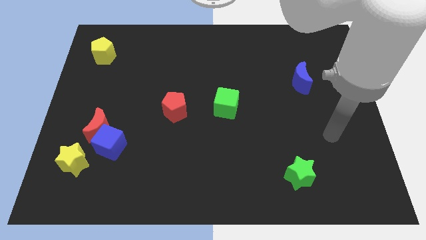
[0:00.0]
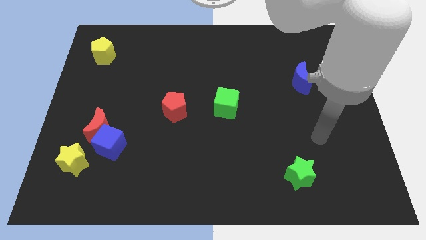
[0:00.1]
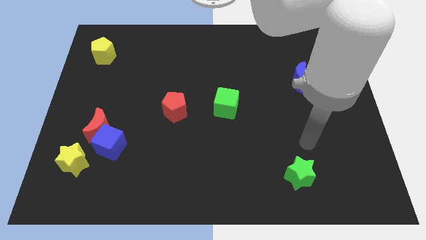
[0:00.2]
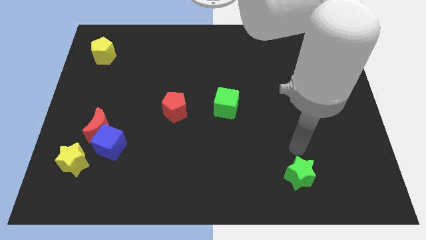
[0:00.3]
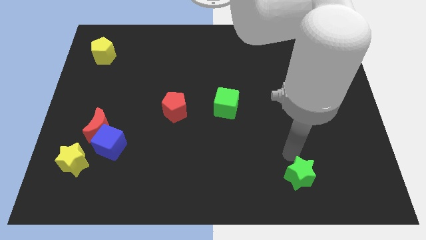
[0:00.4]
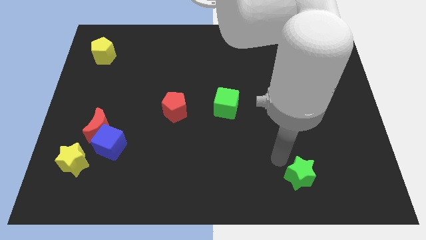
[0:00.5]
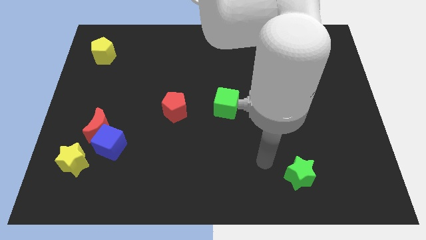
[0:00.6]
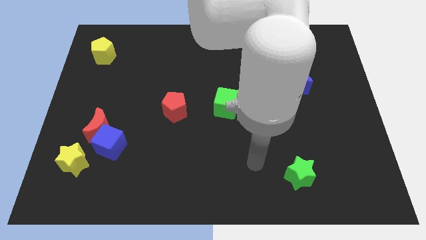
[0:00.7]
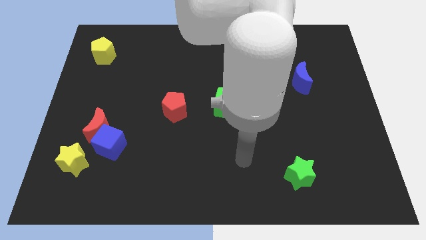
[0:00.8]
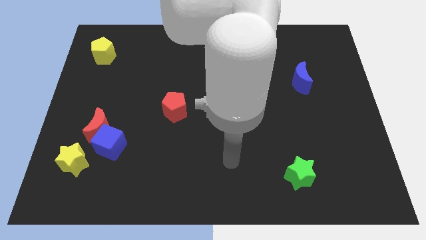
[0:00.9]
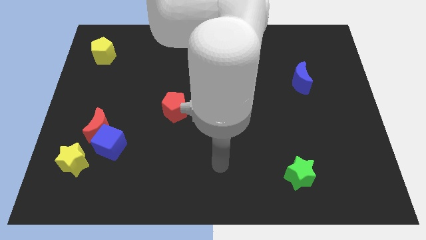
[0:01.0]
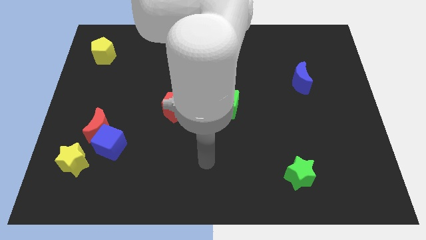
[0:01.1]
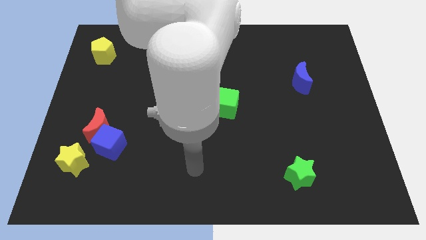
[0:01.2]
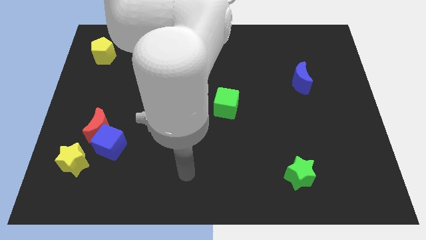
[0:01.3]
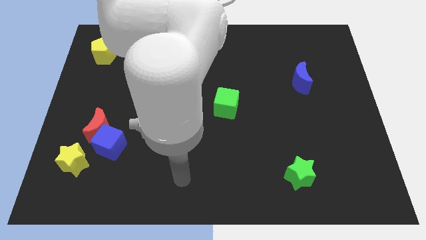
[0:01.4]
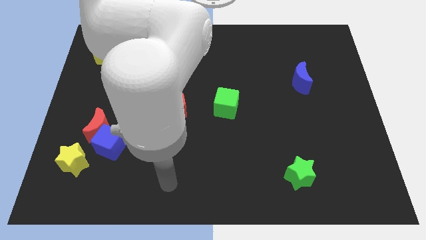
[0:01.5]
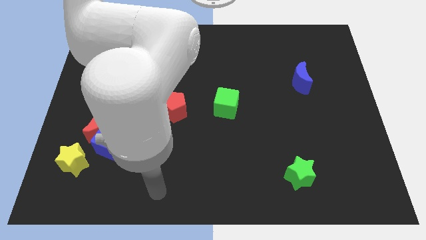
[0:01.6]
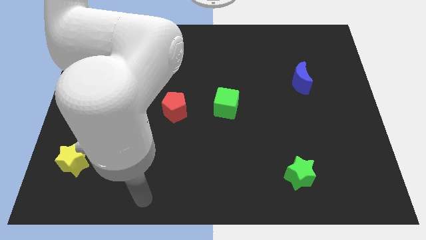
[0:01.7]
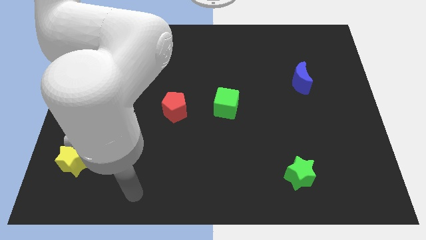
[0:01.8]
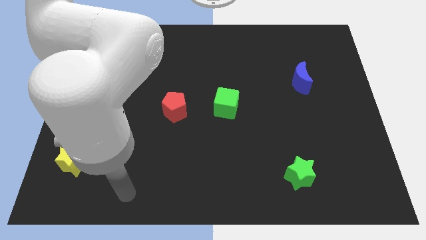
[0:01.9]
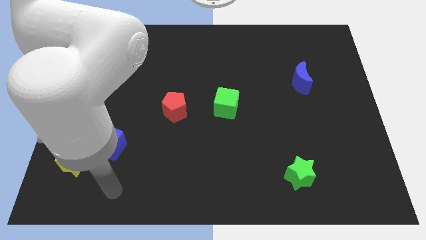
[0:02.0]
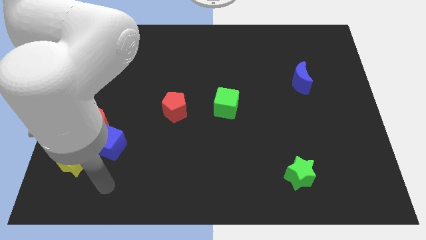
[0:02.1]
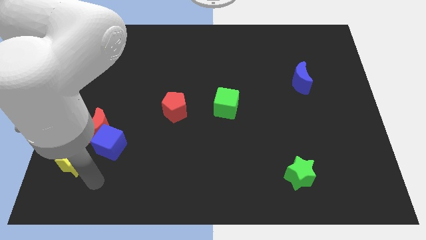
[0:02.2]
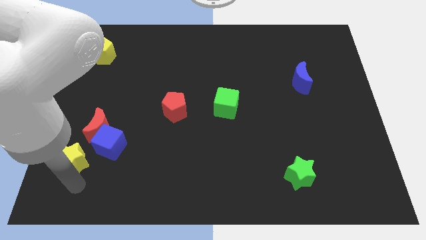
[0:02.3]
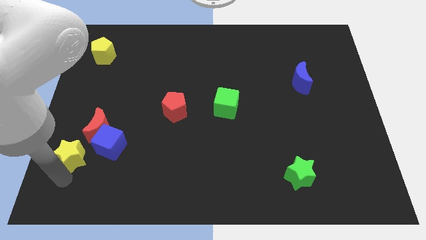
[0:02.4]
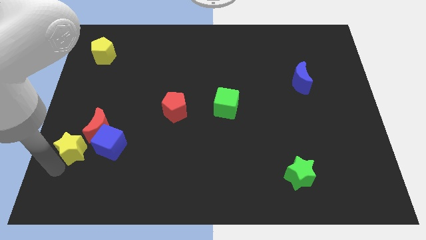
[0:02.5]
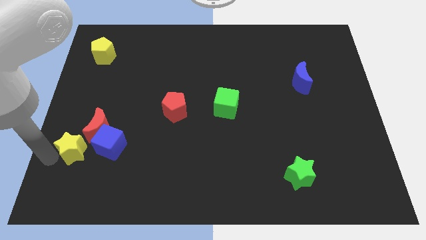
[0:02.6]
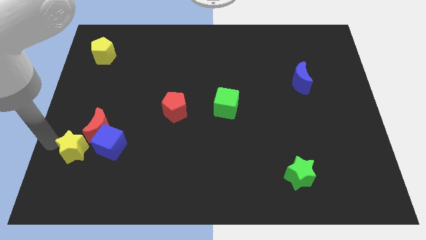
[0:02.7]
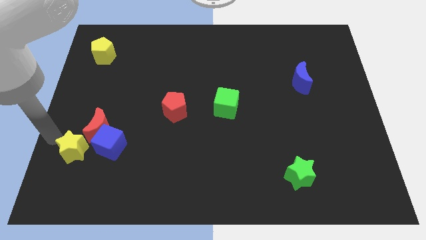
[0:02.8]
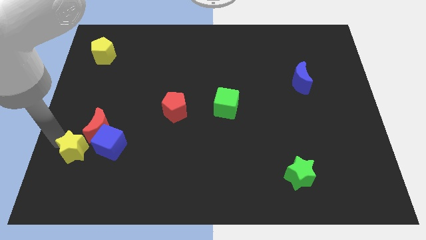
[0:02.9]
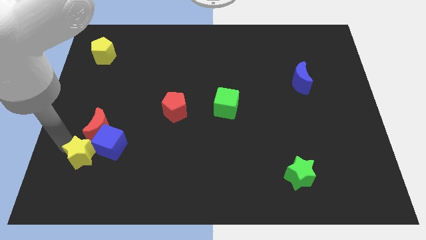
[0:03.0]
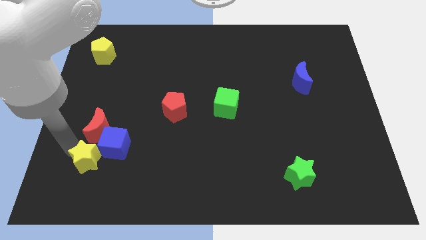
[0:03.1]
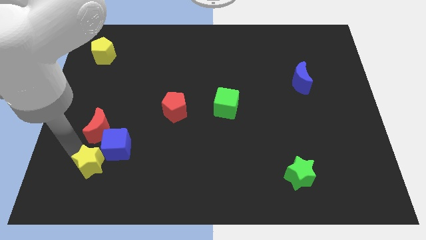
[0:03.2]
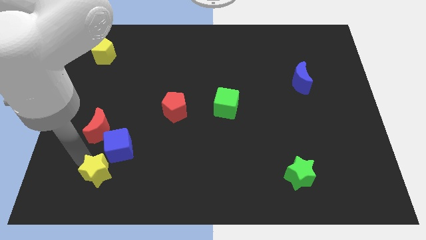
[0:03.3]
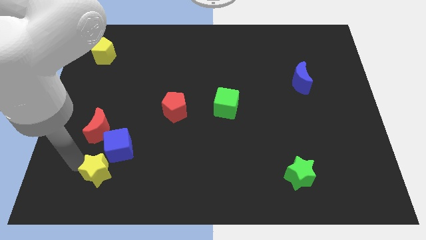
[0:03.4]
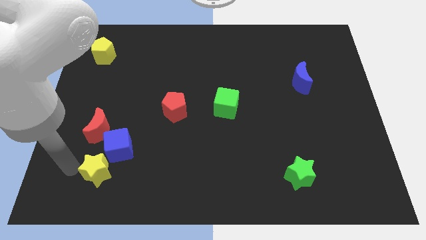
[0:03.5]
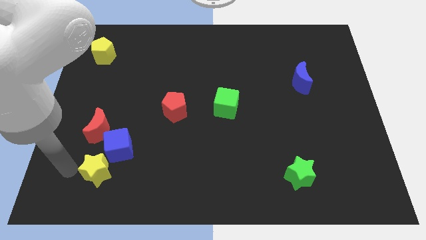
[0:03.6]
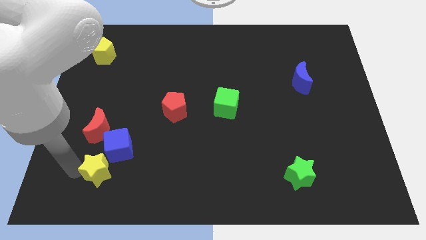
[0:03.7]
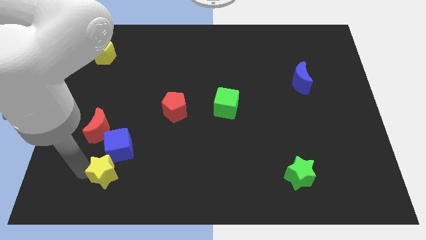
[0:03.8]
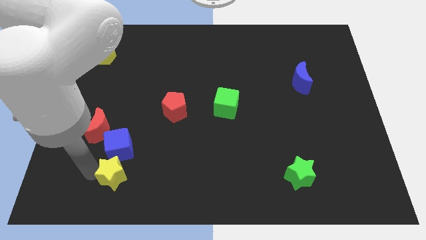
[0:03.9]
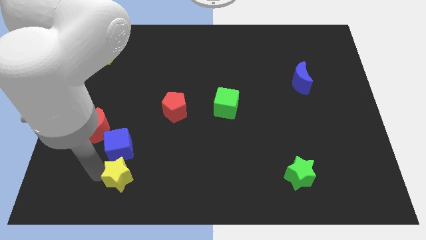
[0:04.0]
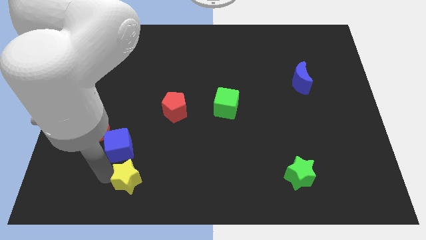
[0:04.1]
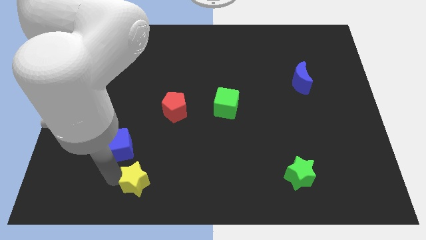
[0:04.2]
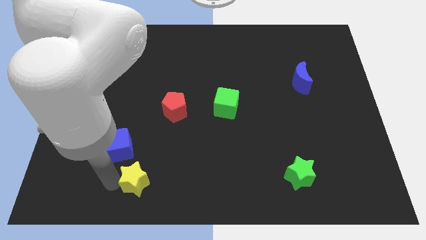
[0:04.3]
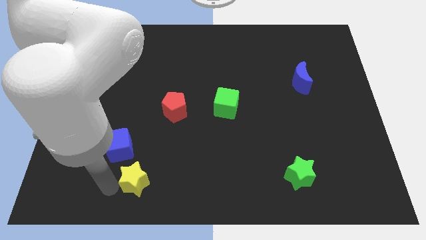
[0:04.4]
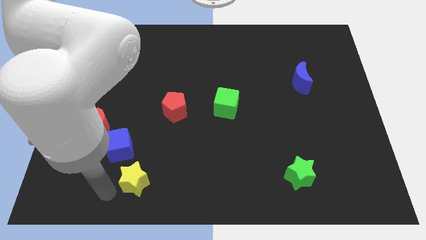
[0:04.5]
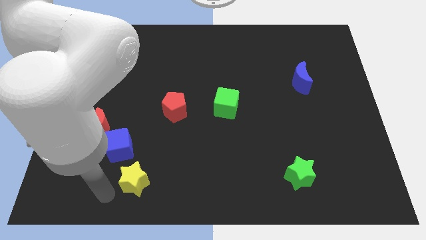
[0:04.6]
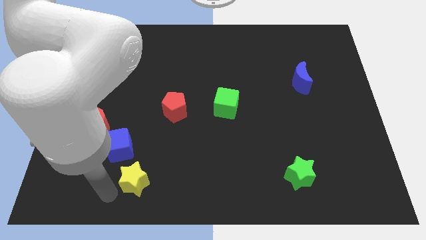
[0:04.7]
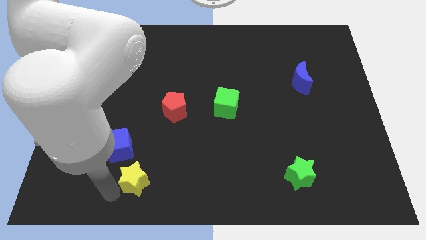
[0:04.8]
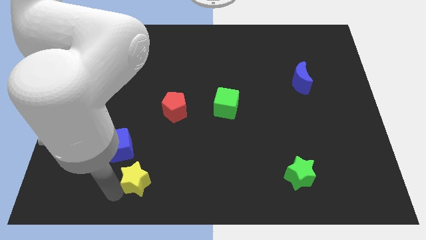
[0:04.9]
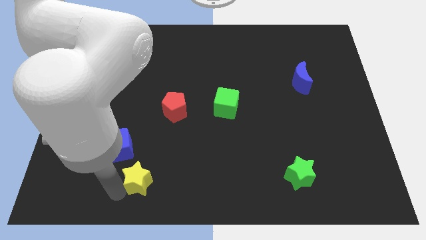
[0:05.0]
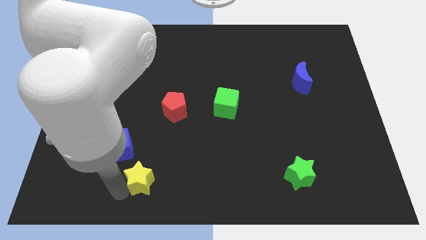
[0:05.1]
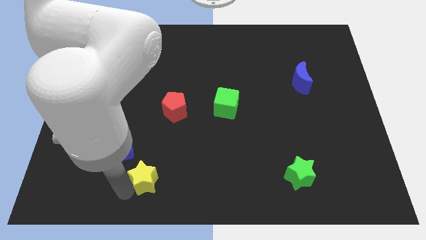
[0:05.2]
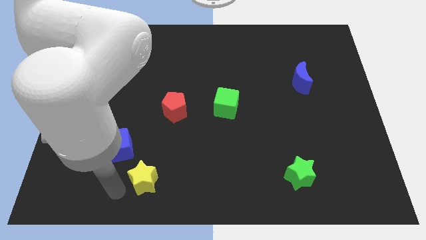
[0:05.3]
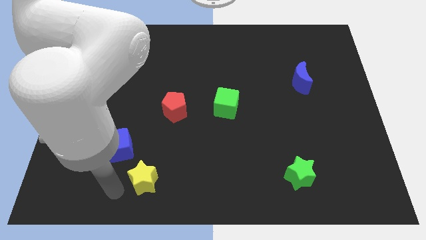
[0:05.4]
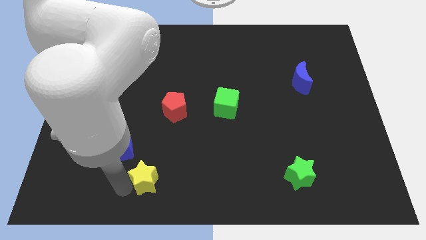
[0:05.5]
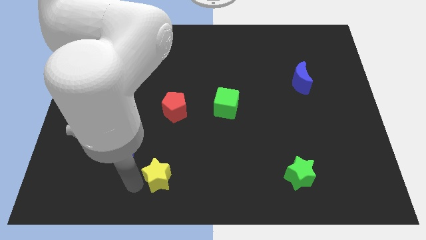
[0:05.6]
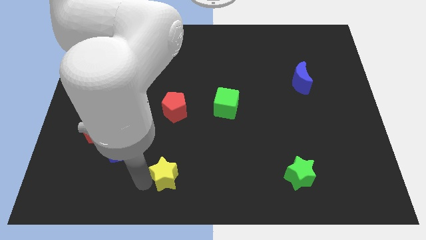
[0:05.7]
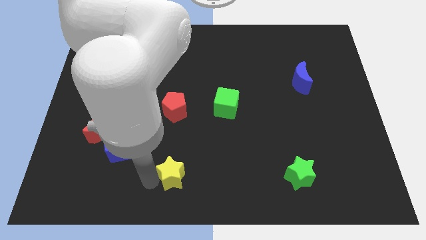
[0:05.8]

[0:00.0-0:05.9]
push the yellow star right

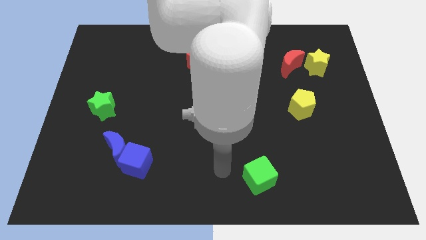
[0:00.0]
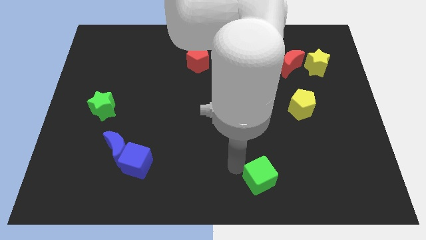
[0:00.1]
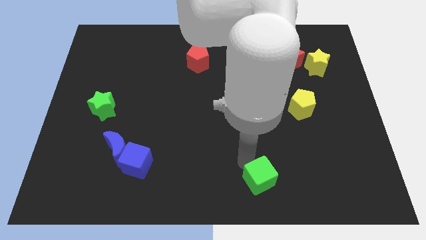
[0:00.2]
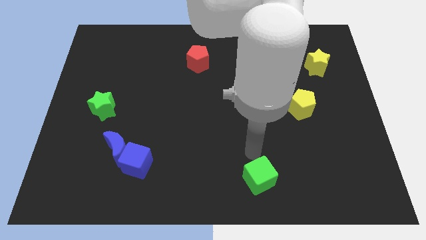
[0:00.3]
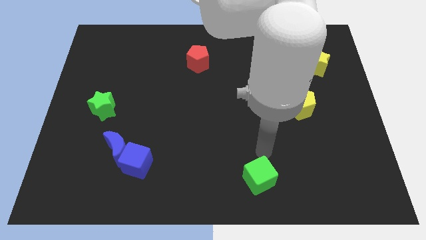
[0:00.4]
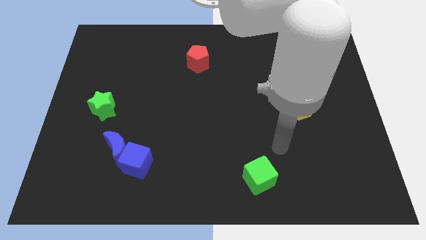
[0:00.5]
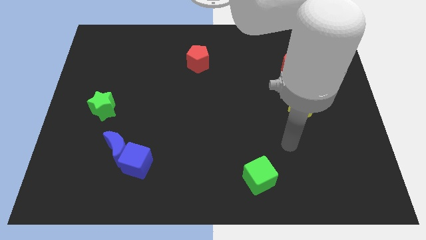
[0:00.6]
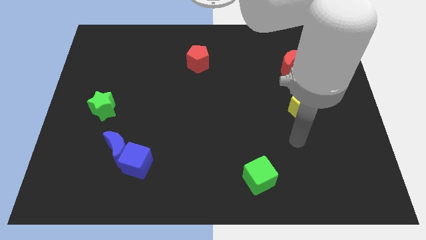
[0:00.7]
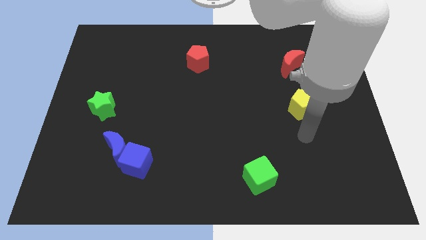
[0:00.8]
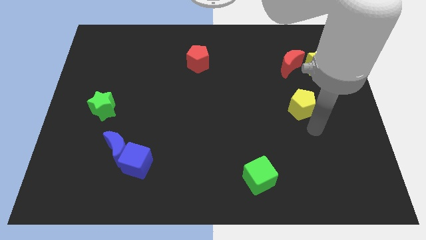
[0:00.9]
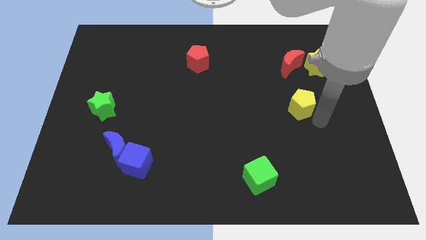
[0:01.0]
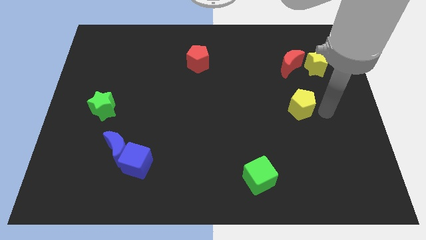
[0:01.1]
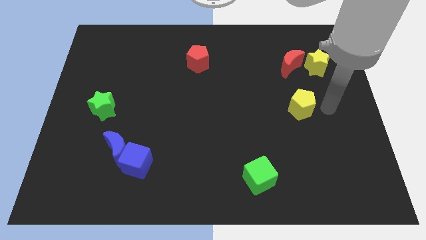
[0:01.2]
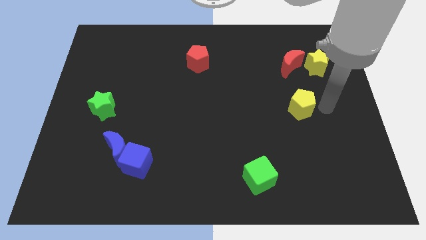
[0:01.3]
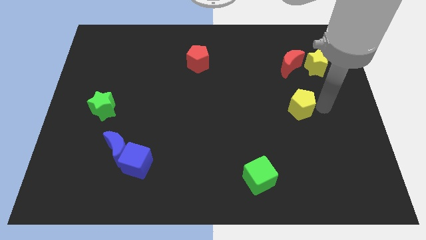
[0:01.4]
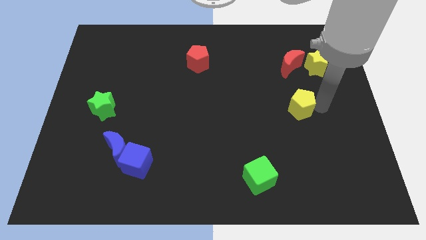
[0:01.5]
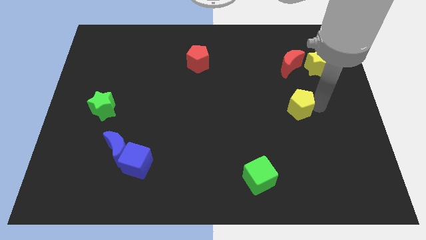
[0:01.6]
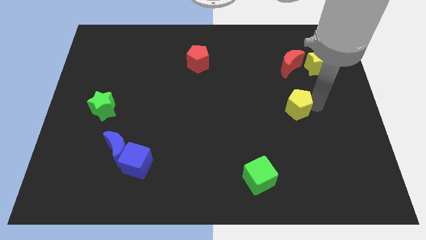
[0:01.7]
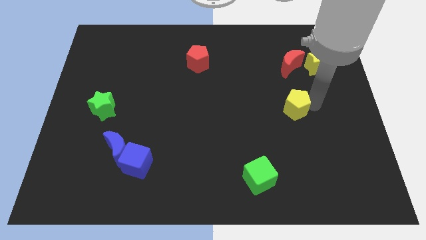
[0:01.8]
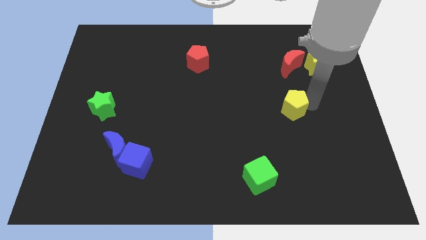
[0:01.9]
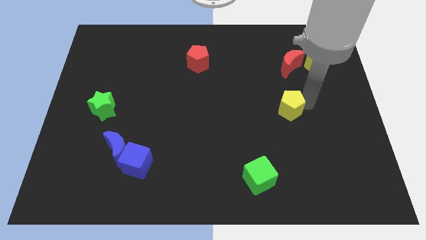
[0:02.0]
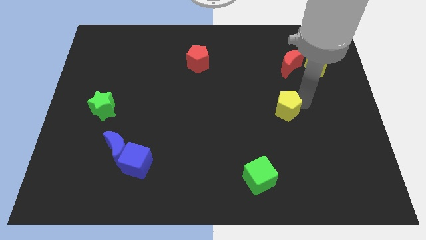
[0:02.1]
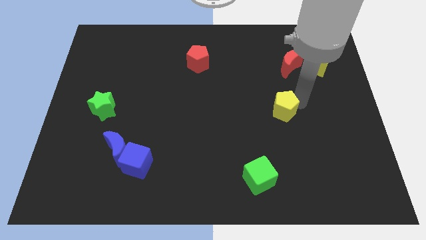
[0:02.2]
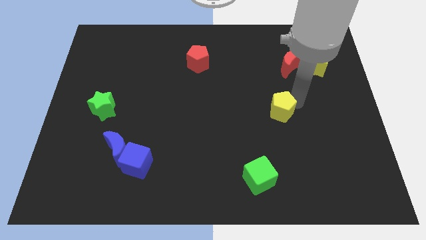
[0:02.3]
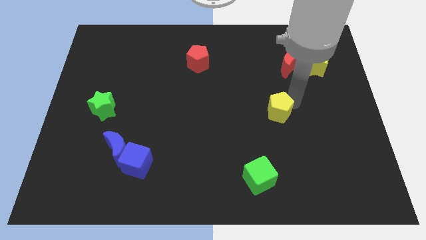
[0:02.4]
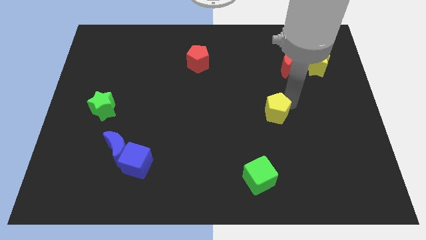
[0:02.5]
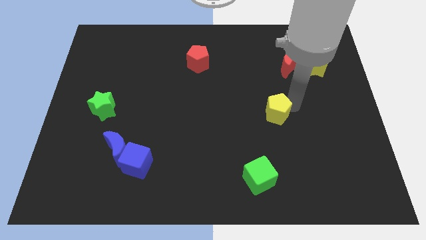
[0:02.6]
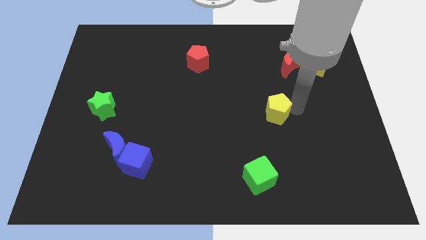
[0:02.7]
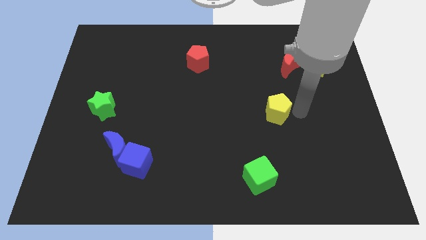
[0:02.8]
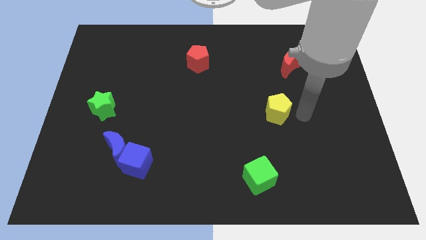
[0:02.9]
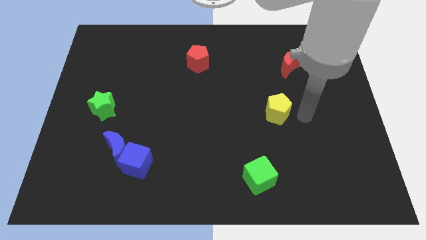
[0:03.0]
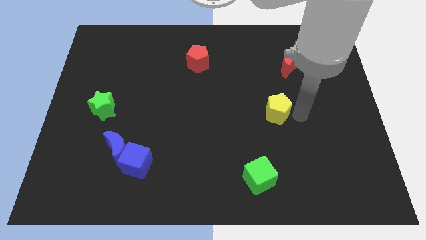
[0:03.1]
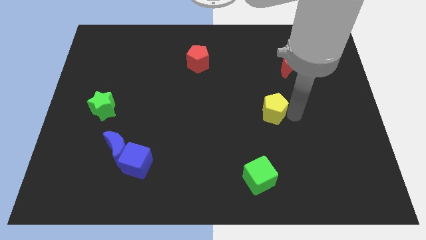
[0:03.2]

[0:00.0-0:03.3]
slightly push the yellow pentagon to the left
